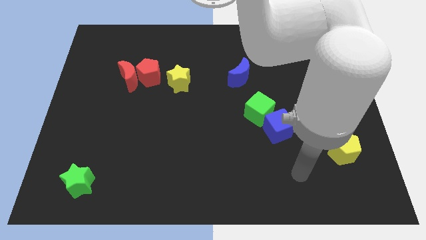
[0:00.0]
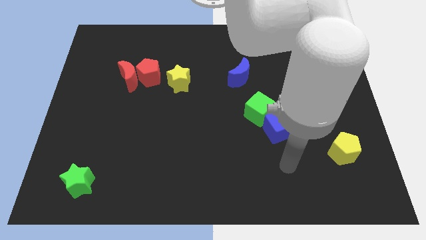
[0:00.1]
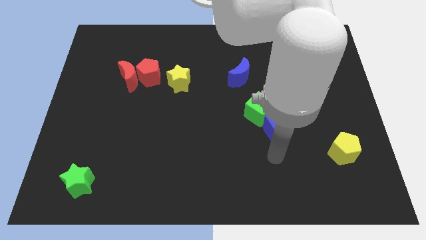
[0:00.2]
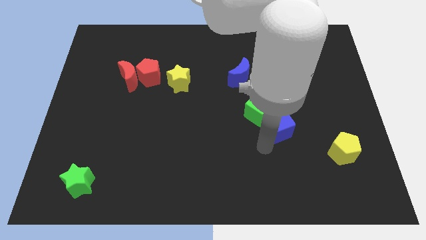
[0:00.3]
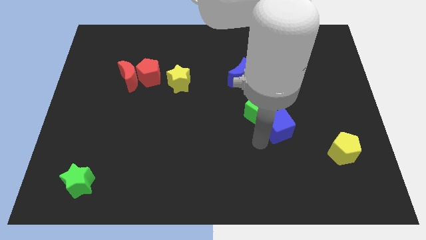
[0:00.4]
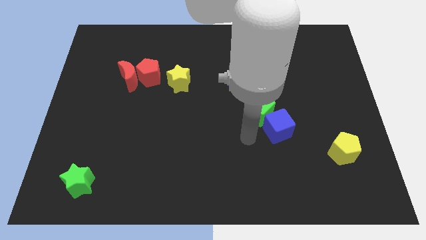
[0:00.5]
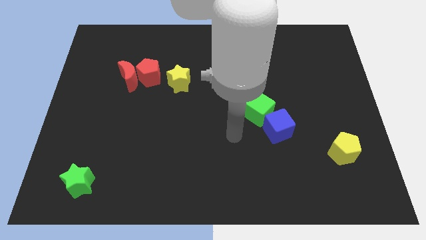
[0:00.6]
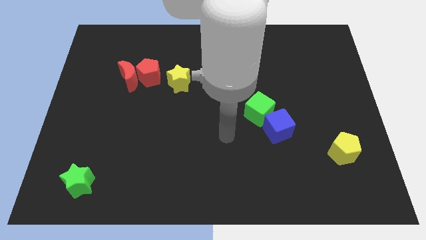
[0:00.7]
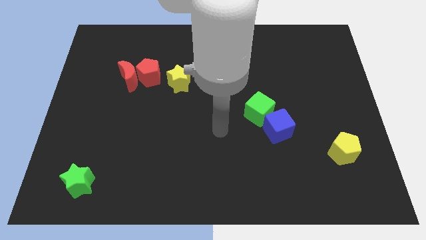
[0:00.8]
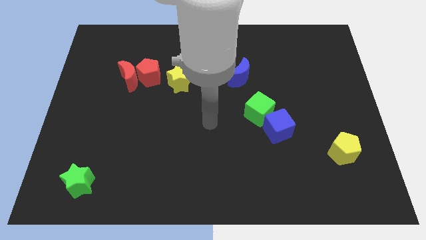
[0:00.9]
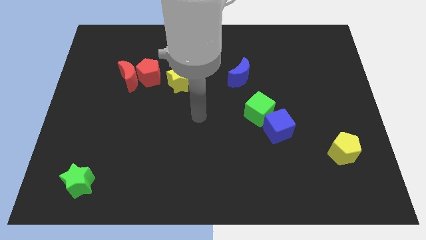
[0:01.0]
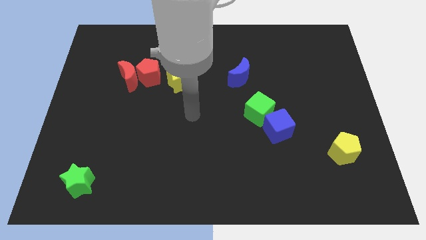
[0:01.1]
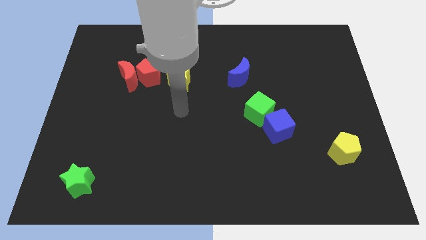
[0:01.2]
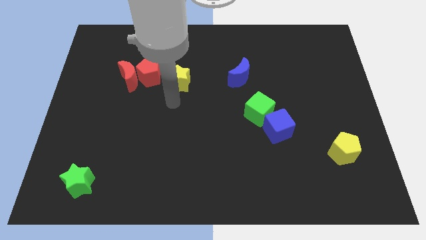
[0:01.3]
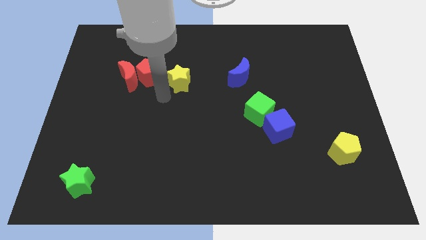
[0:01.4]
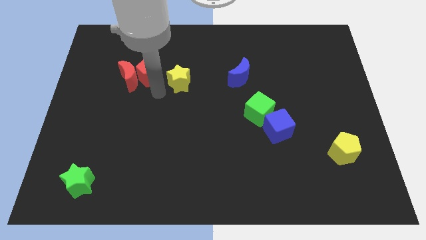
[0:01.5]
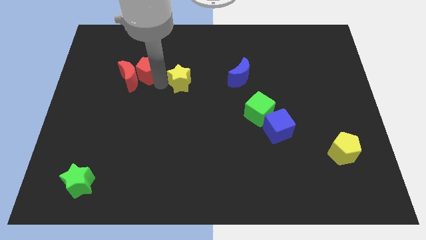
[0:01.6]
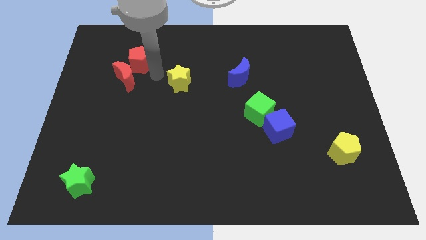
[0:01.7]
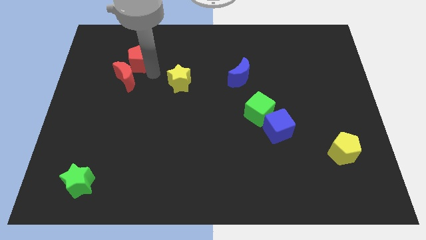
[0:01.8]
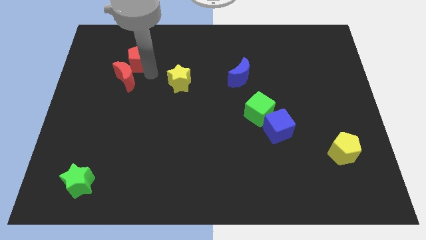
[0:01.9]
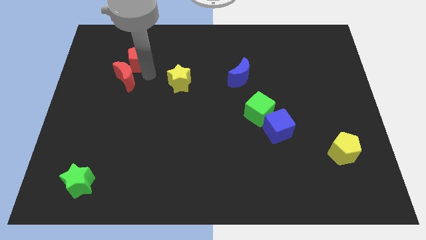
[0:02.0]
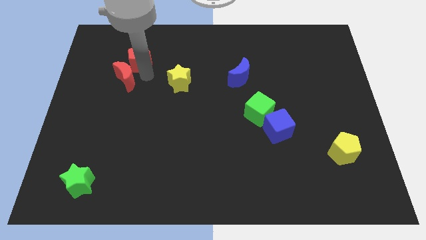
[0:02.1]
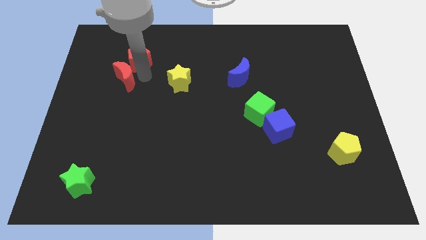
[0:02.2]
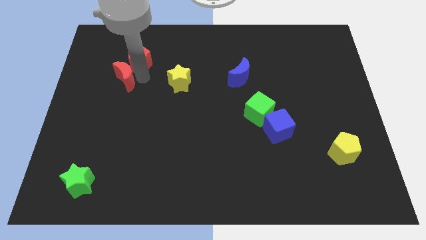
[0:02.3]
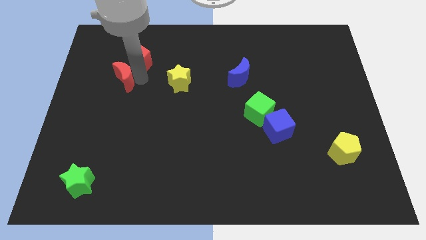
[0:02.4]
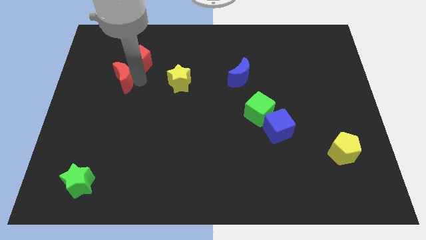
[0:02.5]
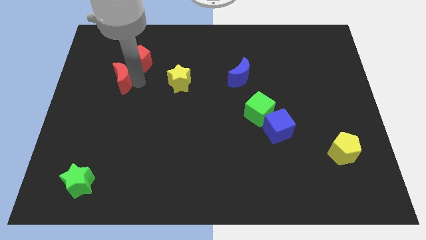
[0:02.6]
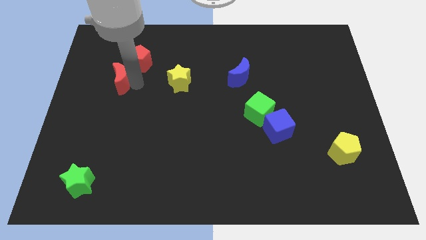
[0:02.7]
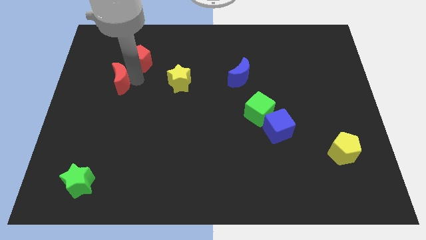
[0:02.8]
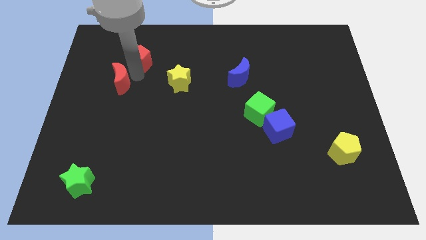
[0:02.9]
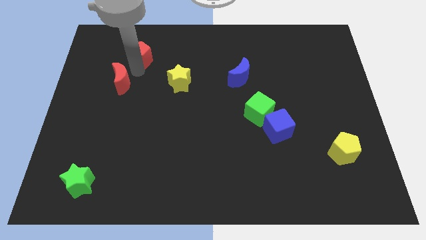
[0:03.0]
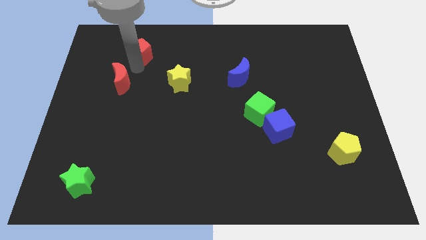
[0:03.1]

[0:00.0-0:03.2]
separate the red moon from the red pentagon

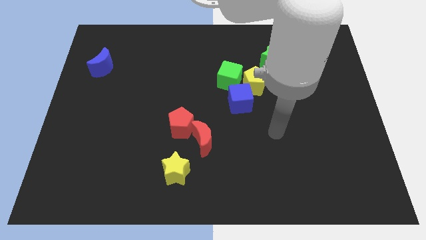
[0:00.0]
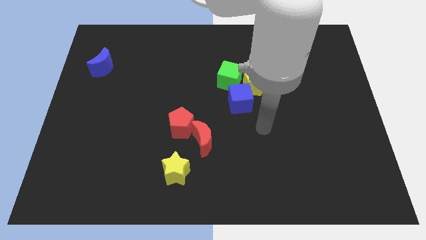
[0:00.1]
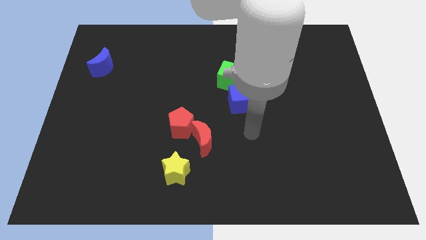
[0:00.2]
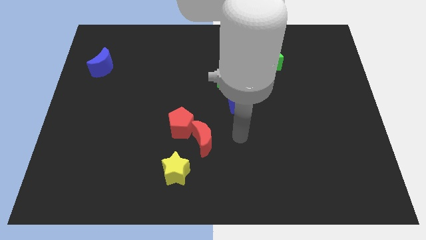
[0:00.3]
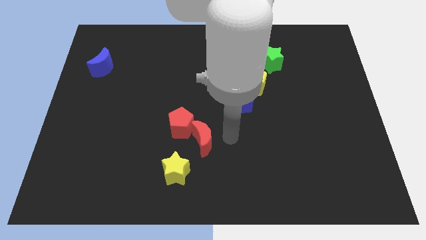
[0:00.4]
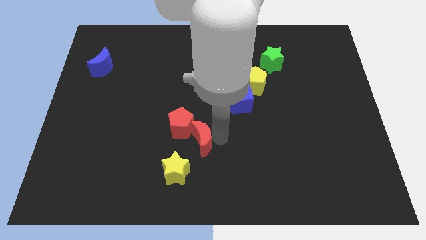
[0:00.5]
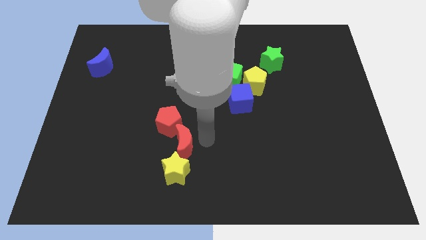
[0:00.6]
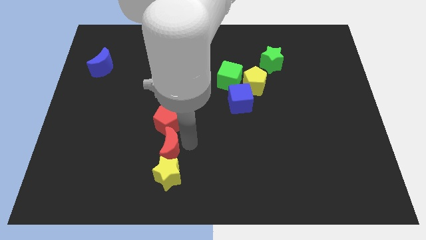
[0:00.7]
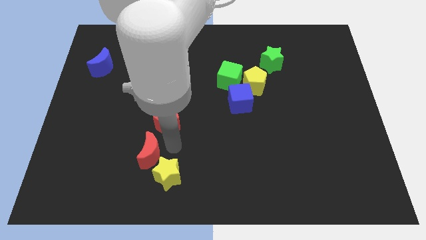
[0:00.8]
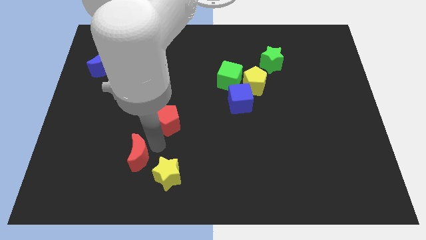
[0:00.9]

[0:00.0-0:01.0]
move the red pentagon away from the red moon

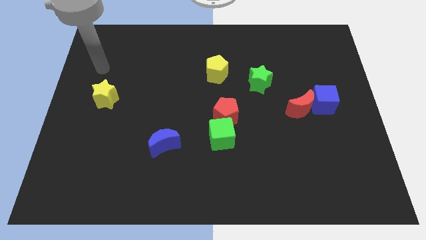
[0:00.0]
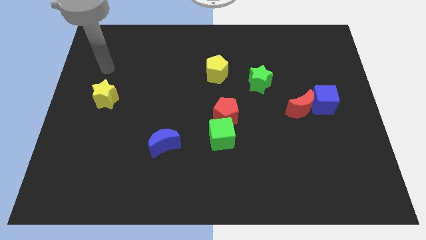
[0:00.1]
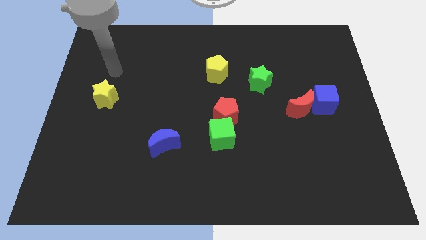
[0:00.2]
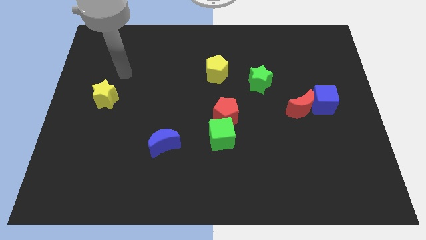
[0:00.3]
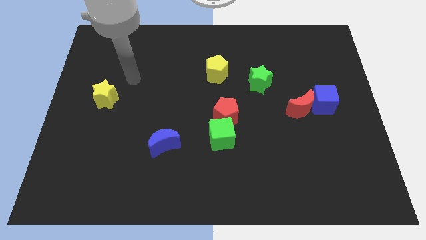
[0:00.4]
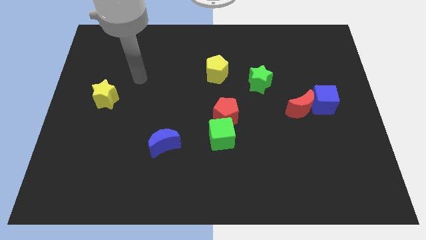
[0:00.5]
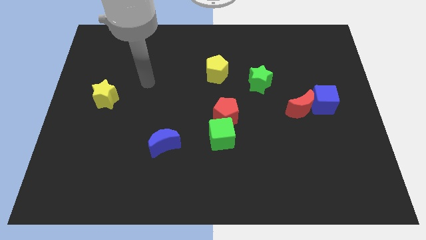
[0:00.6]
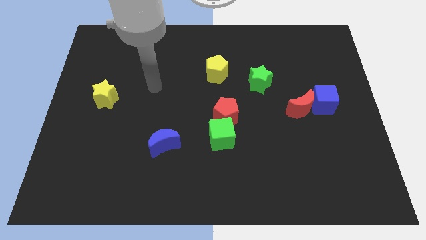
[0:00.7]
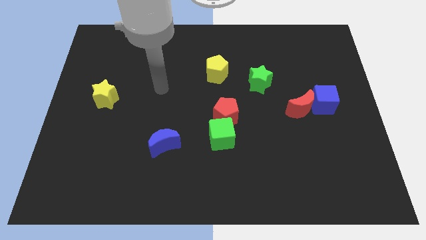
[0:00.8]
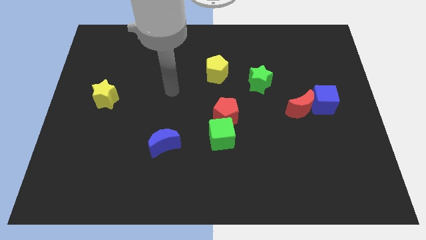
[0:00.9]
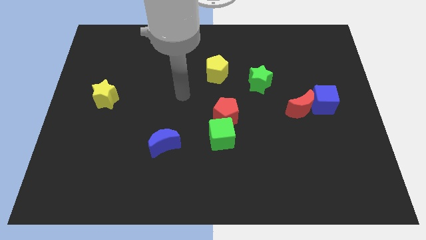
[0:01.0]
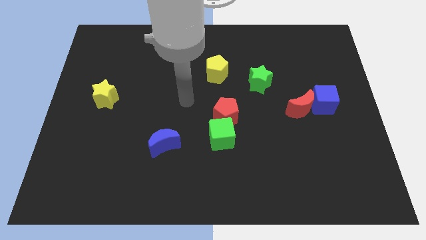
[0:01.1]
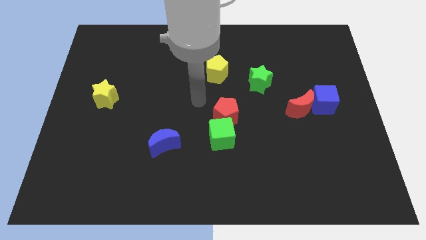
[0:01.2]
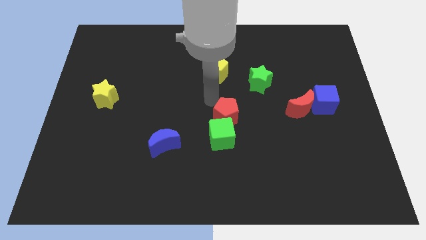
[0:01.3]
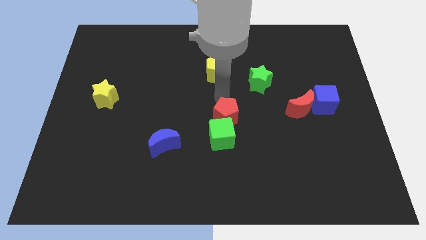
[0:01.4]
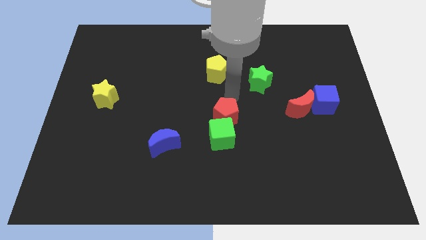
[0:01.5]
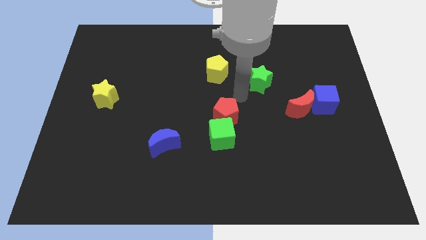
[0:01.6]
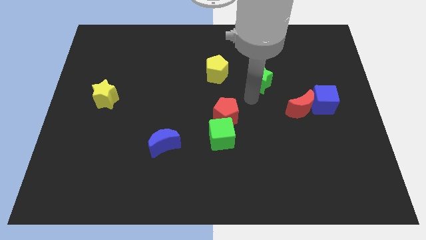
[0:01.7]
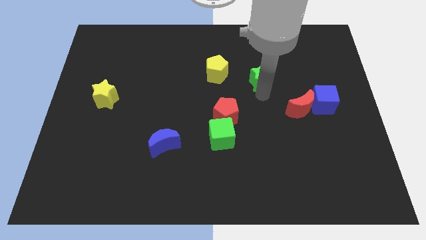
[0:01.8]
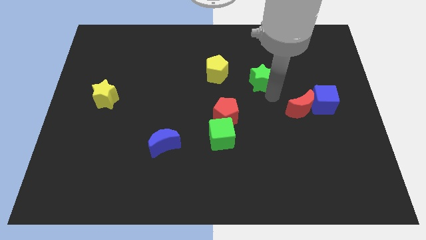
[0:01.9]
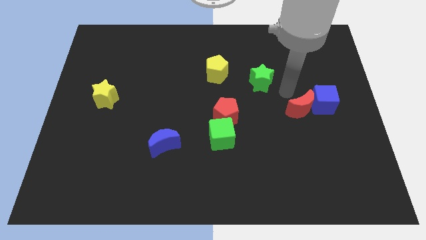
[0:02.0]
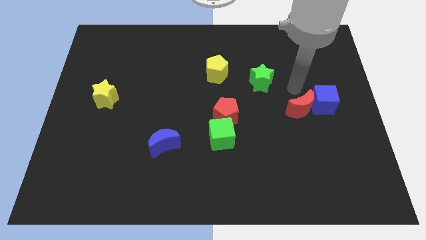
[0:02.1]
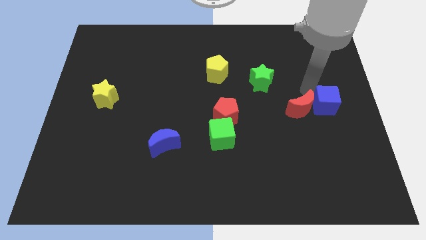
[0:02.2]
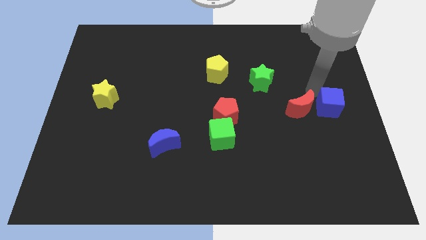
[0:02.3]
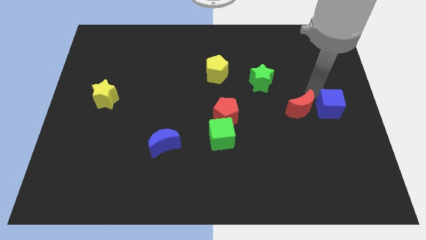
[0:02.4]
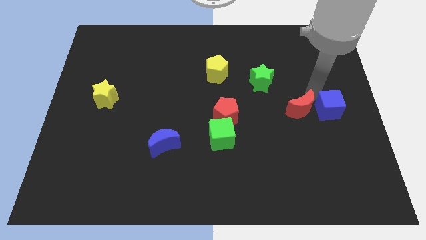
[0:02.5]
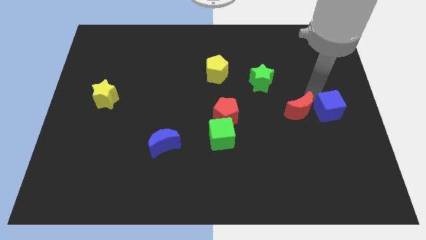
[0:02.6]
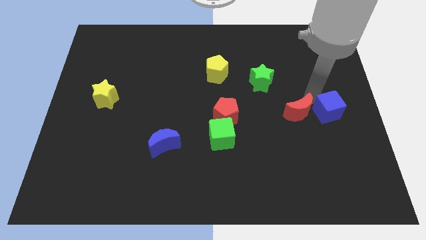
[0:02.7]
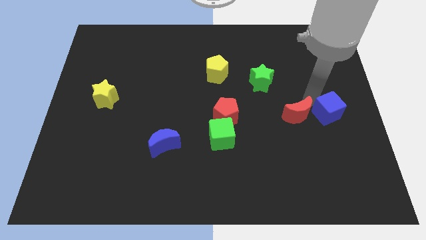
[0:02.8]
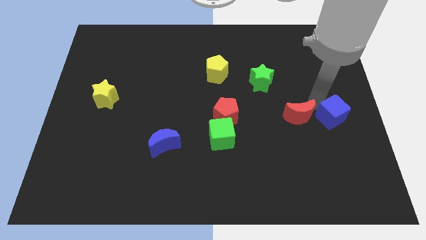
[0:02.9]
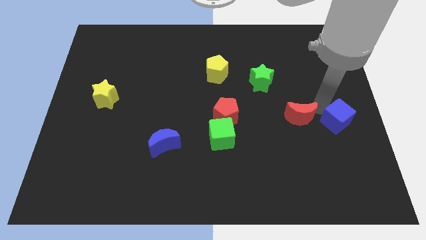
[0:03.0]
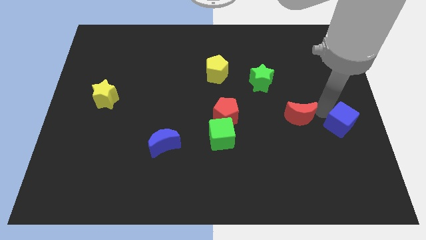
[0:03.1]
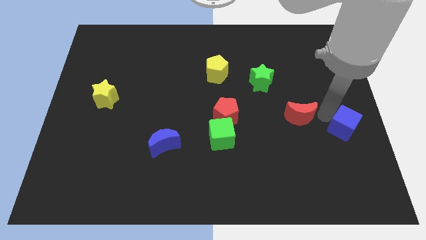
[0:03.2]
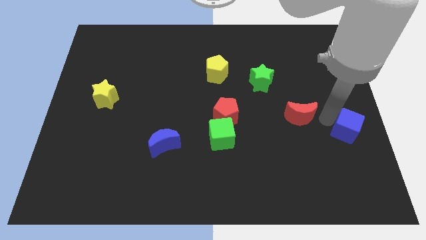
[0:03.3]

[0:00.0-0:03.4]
move the red moon away from the blue cube

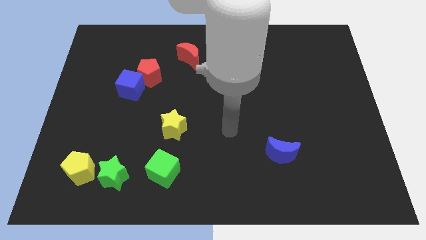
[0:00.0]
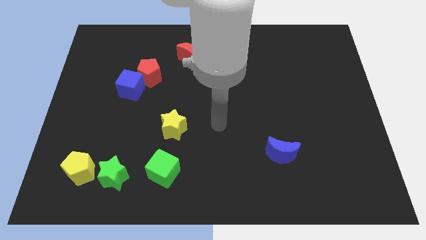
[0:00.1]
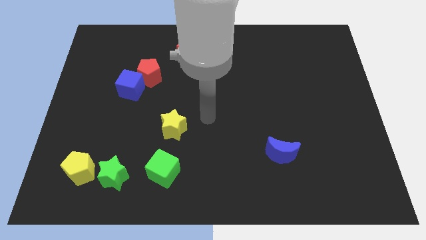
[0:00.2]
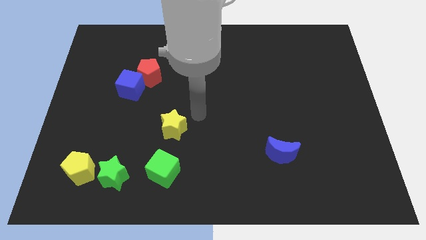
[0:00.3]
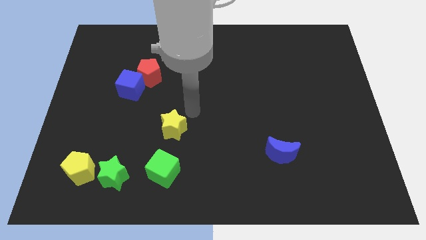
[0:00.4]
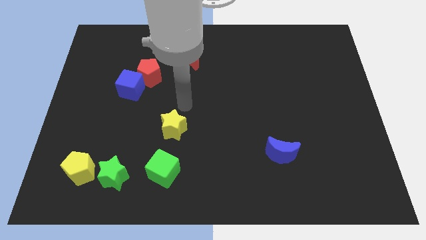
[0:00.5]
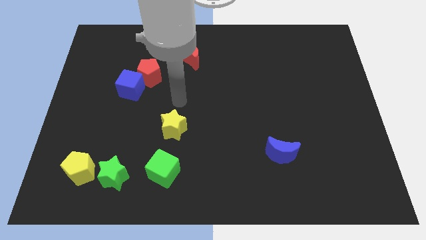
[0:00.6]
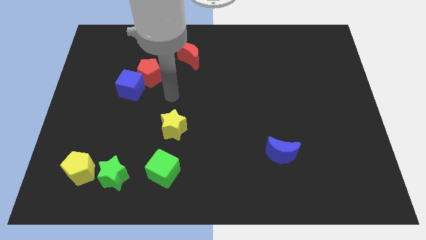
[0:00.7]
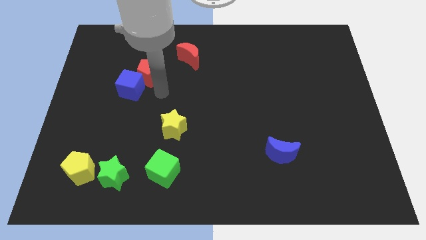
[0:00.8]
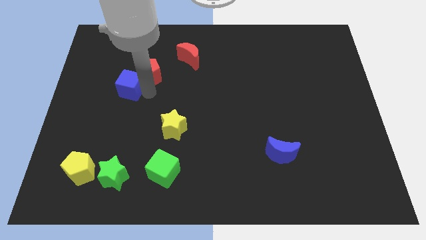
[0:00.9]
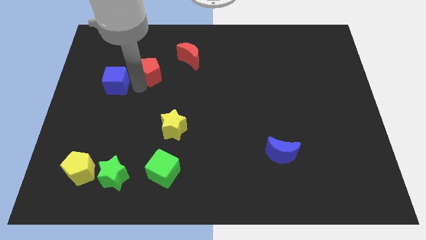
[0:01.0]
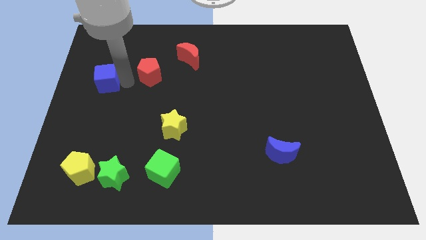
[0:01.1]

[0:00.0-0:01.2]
separate the red pentagon from the blue cube

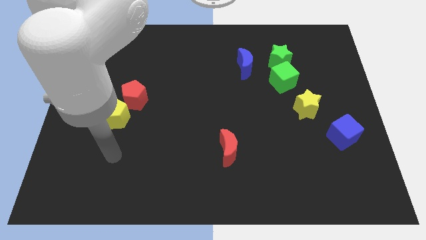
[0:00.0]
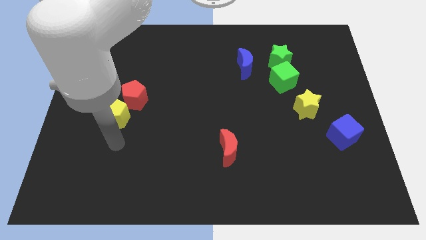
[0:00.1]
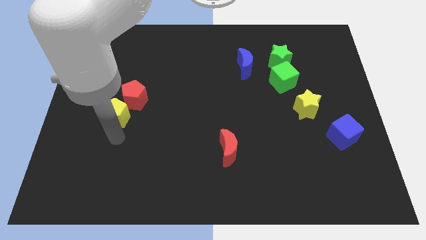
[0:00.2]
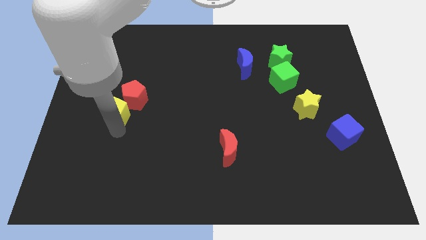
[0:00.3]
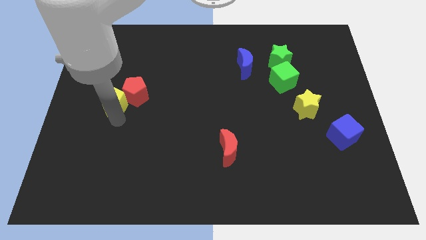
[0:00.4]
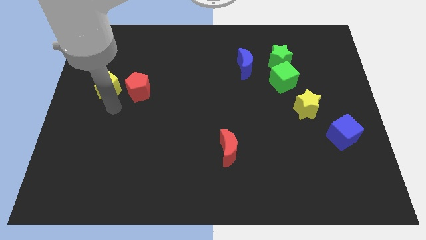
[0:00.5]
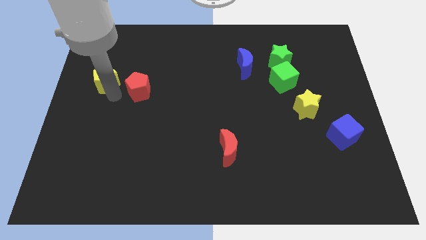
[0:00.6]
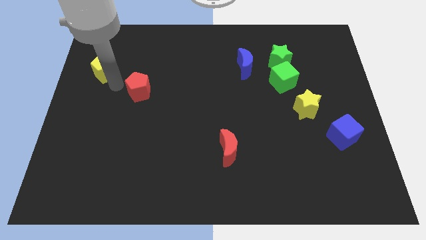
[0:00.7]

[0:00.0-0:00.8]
pull the red pentagon apart from the yellow pentagon
